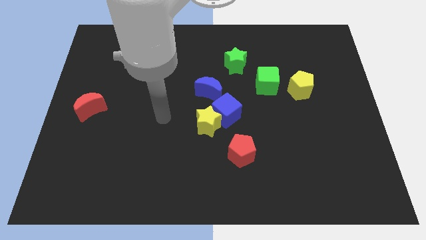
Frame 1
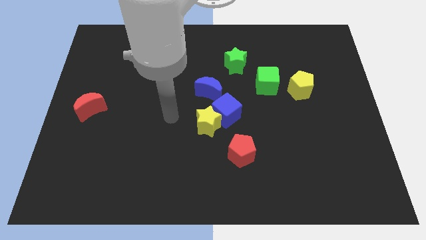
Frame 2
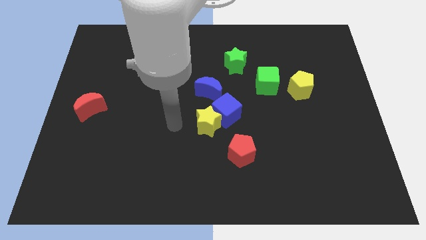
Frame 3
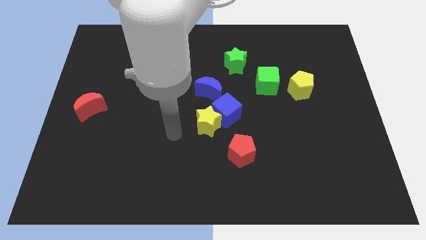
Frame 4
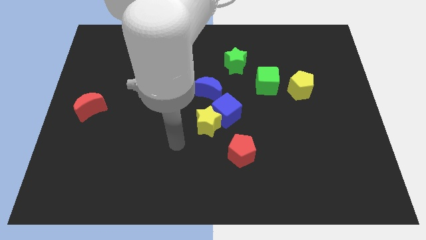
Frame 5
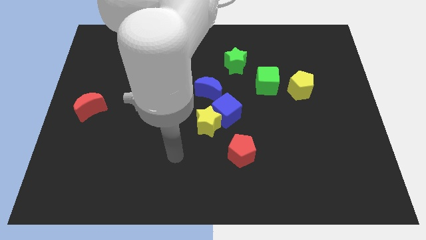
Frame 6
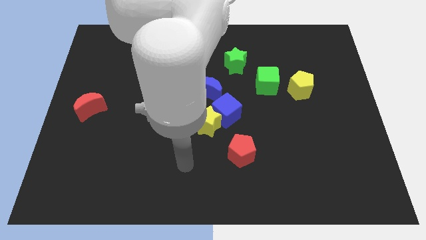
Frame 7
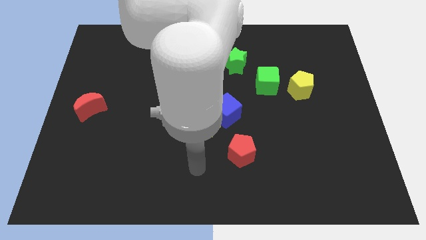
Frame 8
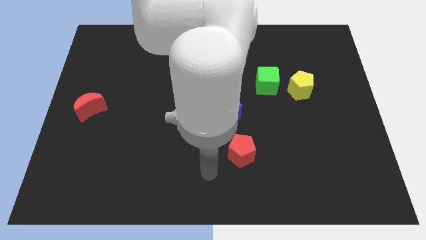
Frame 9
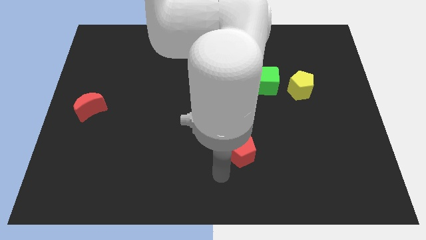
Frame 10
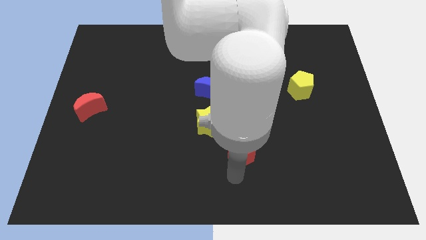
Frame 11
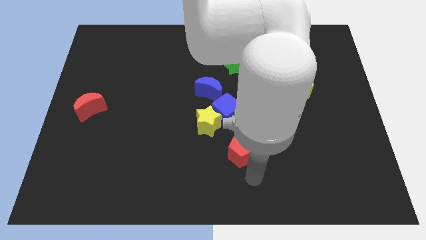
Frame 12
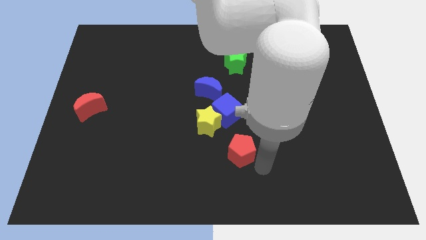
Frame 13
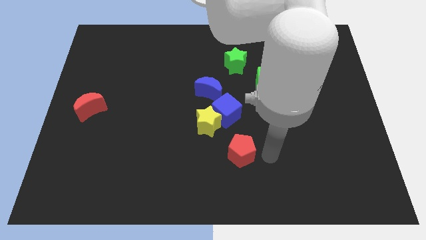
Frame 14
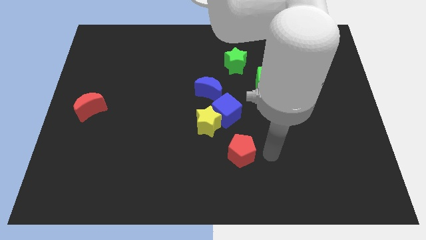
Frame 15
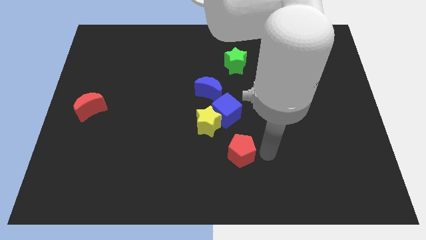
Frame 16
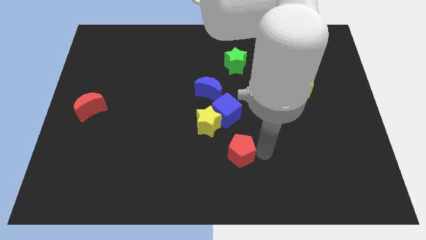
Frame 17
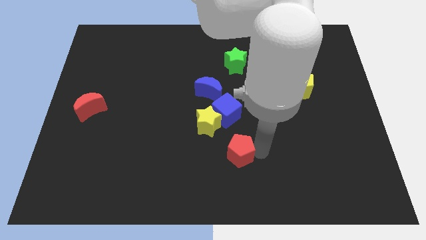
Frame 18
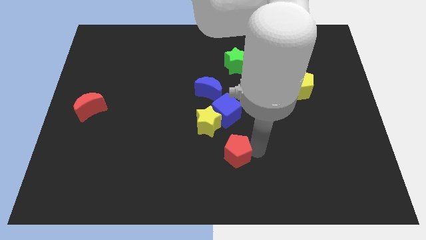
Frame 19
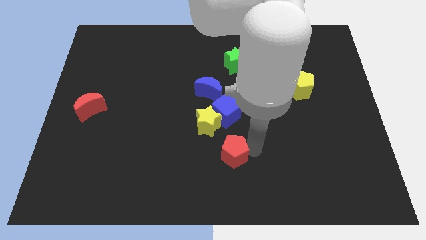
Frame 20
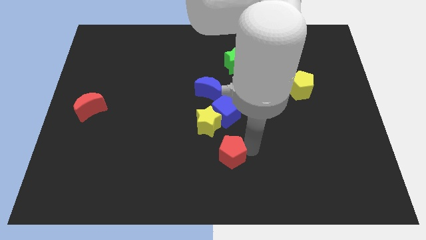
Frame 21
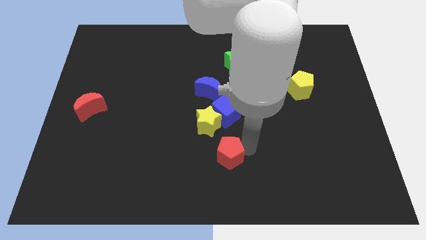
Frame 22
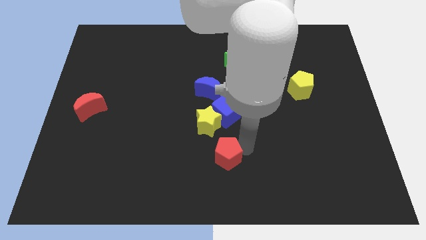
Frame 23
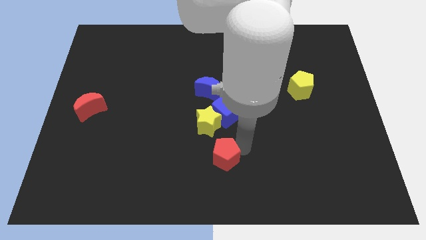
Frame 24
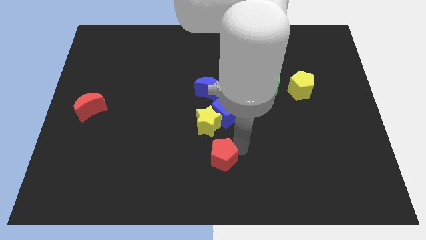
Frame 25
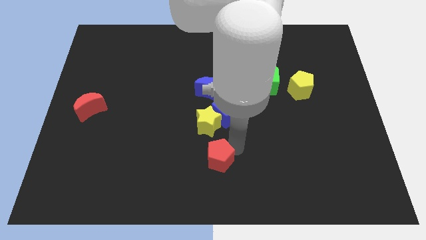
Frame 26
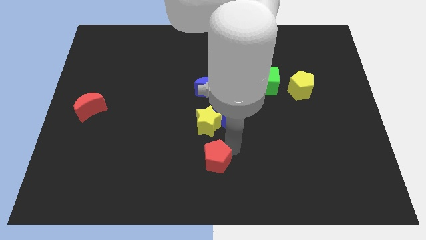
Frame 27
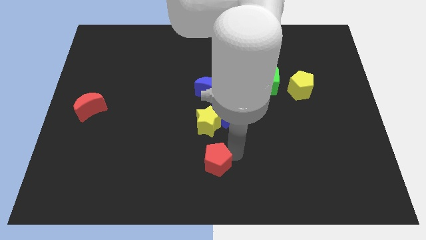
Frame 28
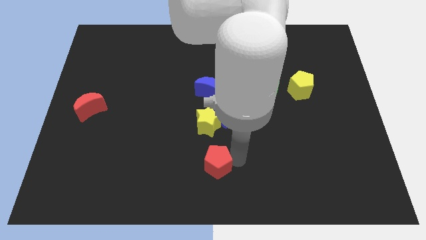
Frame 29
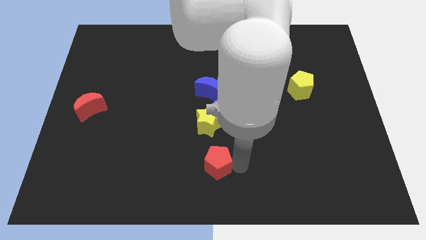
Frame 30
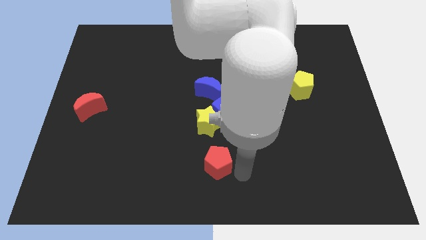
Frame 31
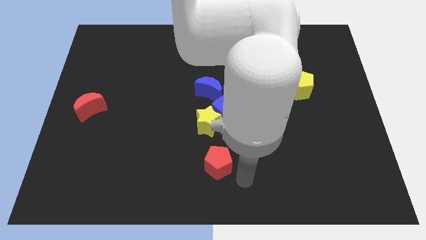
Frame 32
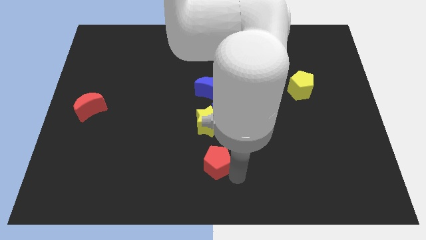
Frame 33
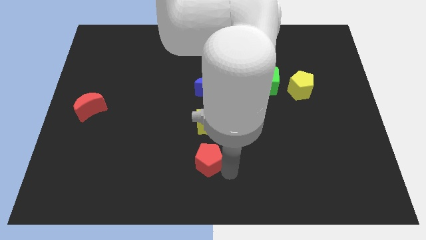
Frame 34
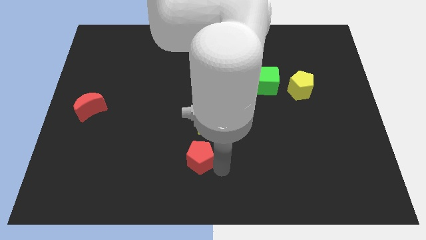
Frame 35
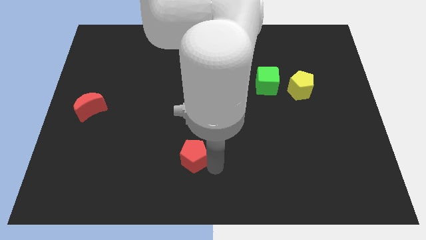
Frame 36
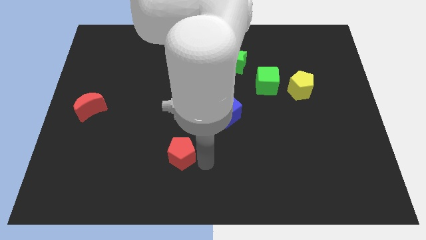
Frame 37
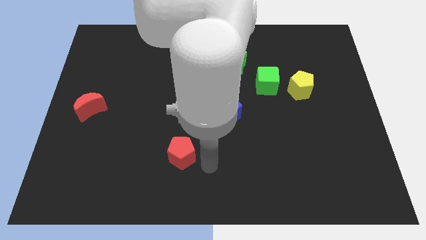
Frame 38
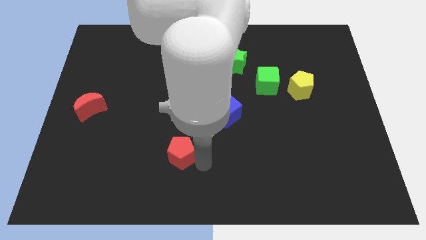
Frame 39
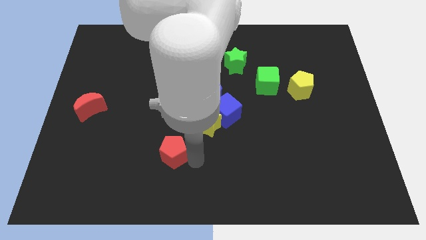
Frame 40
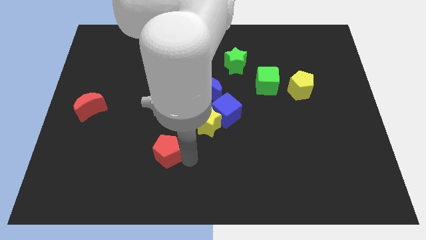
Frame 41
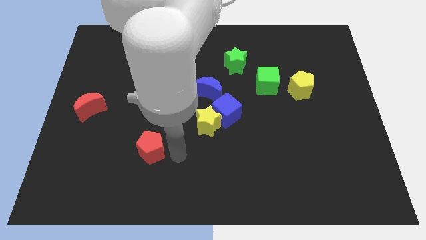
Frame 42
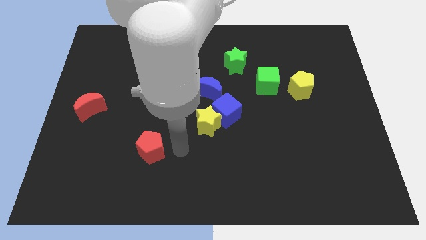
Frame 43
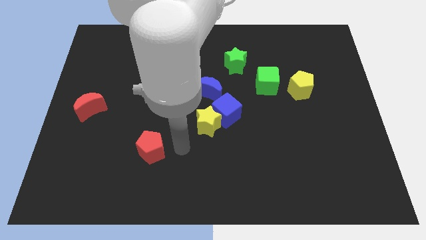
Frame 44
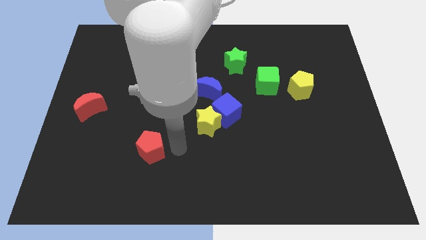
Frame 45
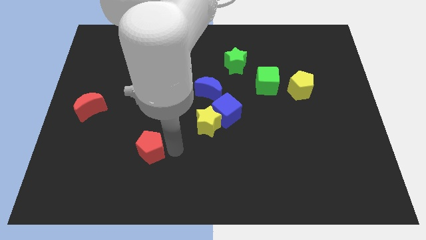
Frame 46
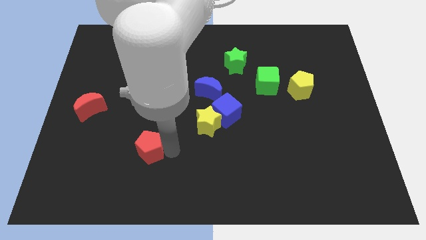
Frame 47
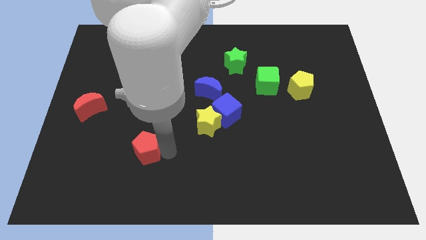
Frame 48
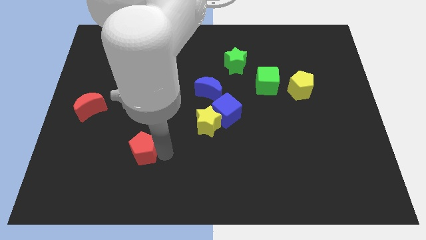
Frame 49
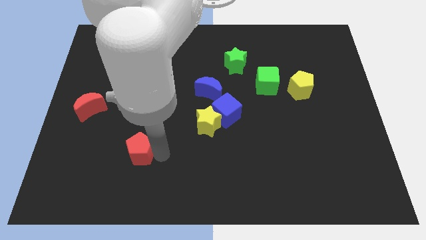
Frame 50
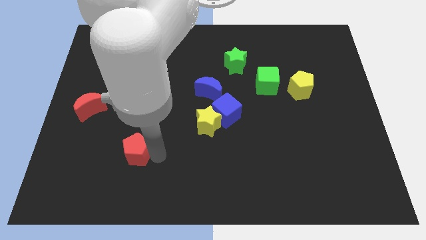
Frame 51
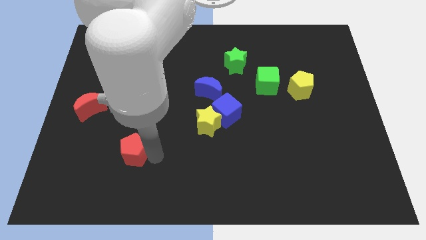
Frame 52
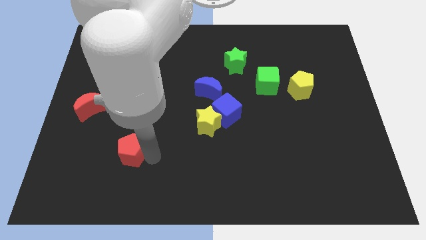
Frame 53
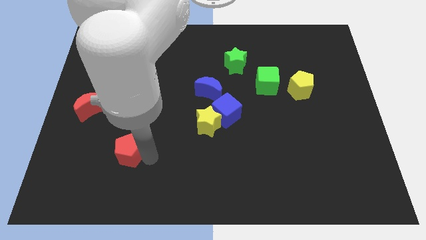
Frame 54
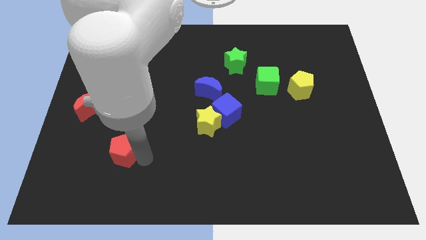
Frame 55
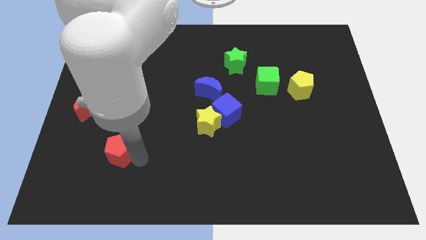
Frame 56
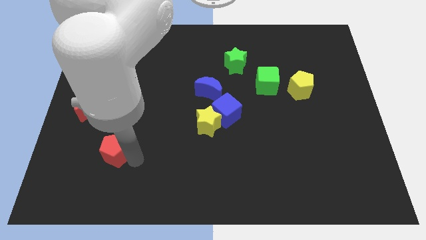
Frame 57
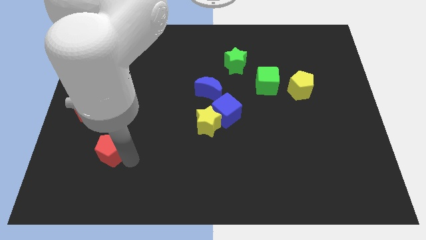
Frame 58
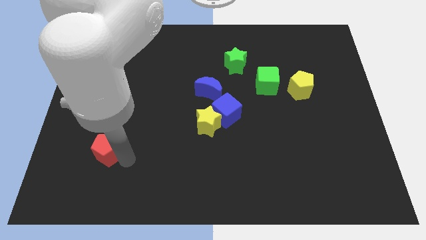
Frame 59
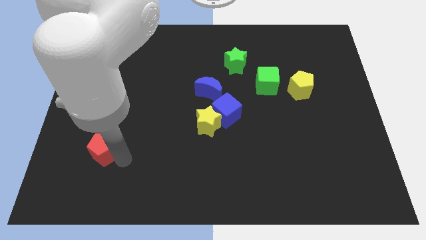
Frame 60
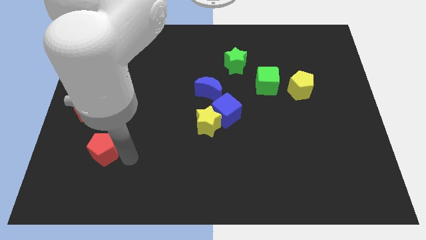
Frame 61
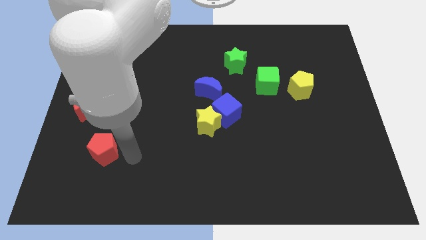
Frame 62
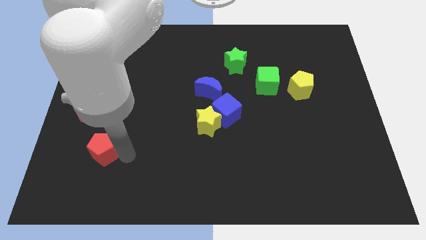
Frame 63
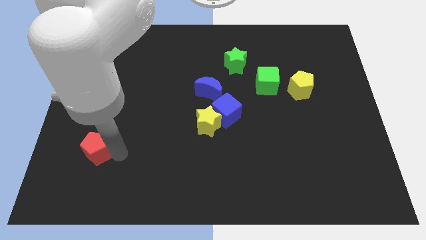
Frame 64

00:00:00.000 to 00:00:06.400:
move the red pentagon below the red moon

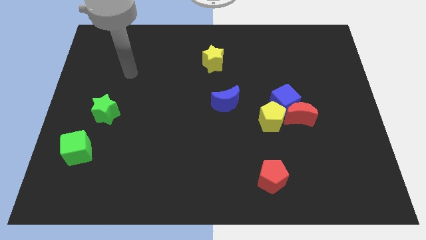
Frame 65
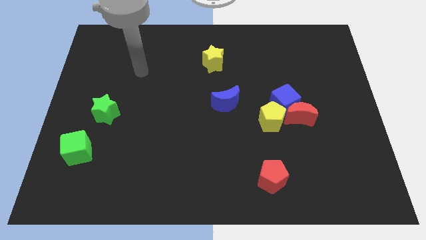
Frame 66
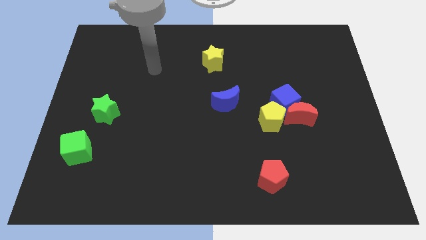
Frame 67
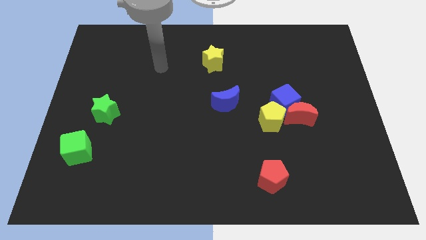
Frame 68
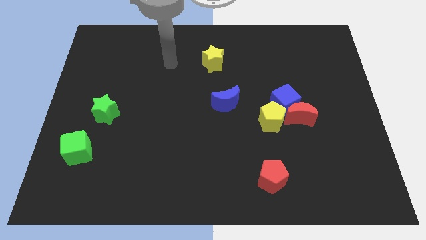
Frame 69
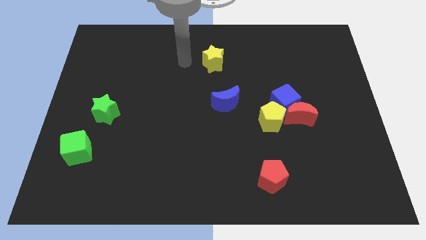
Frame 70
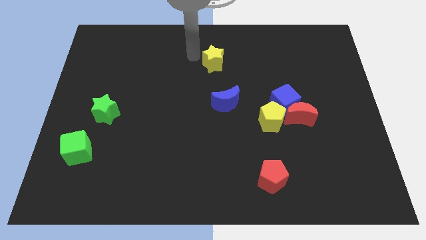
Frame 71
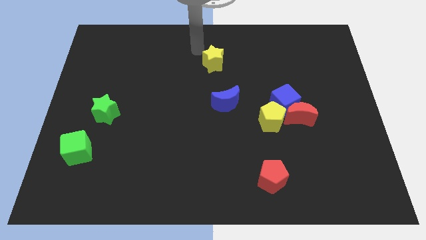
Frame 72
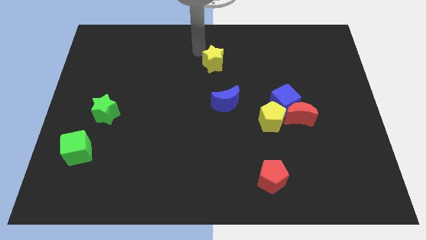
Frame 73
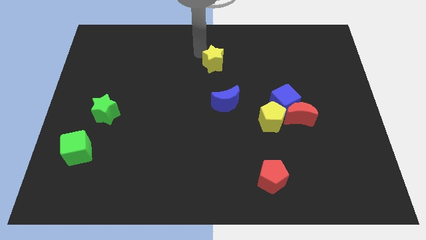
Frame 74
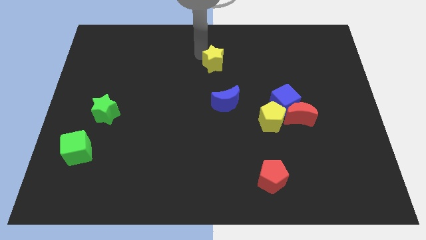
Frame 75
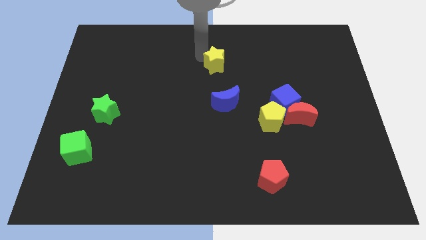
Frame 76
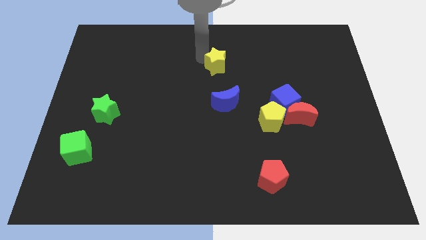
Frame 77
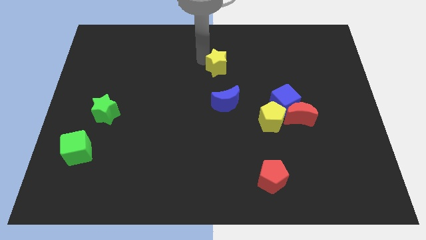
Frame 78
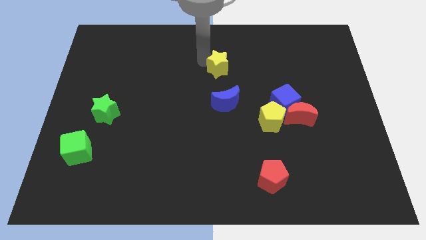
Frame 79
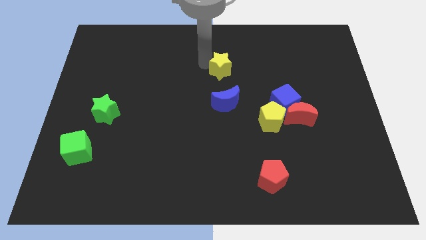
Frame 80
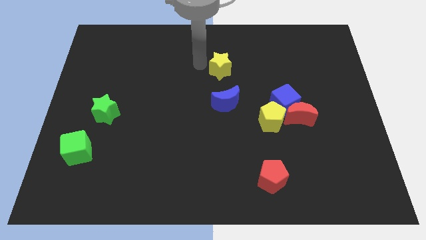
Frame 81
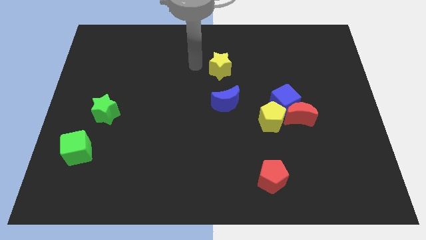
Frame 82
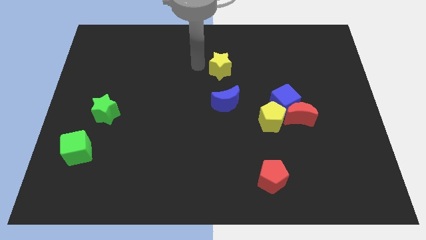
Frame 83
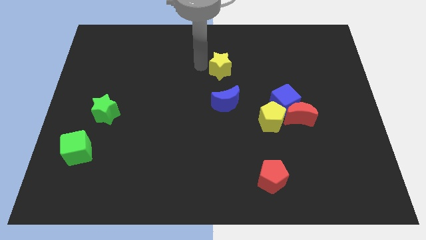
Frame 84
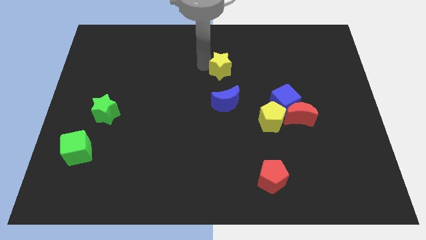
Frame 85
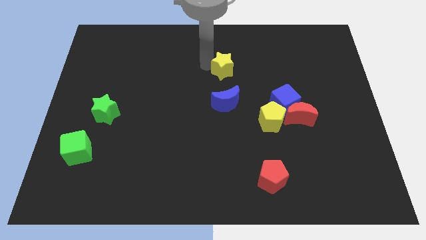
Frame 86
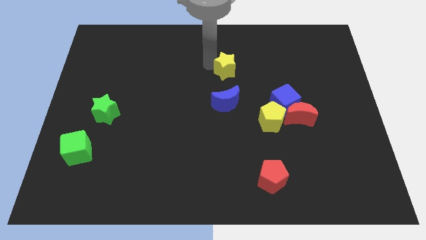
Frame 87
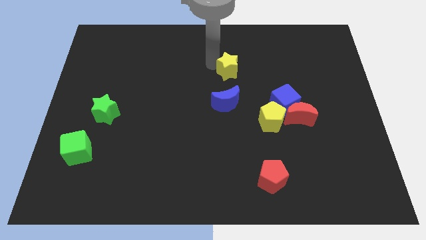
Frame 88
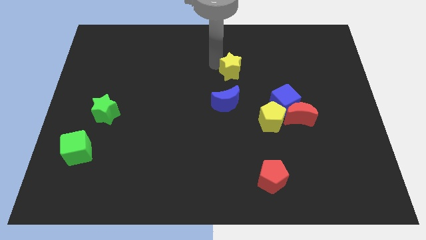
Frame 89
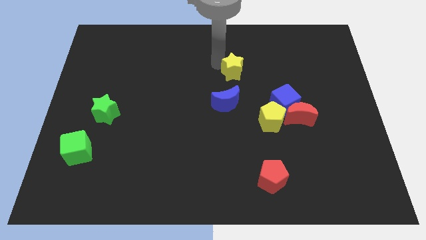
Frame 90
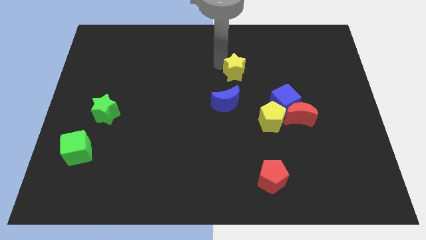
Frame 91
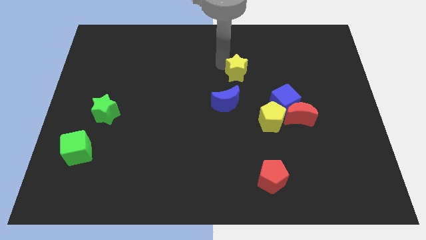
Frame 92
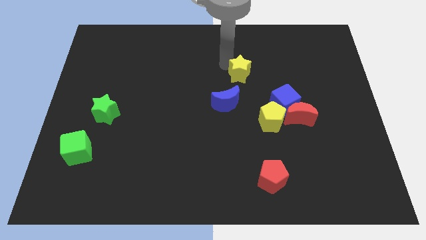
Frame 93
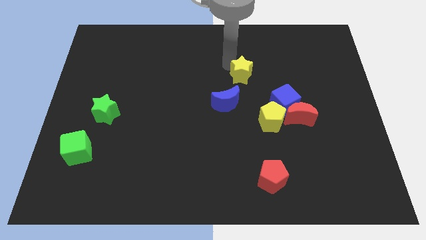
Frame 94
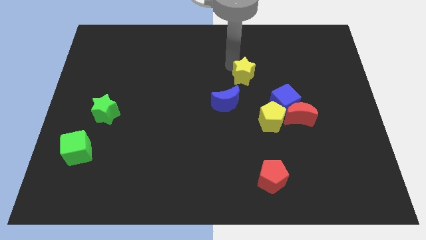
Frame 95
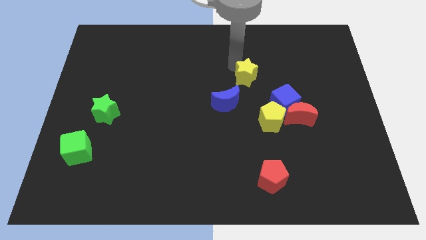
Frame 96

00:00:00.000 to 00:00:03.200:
slide the yellow star to the top left side of the blue cube
